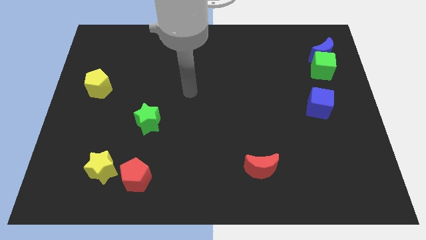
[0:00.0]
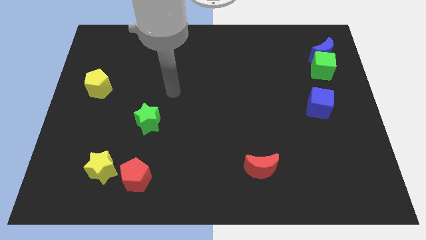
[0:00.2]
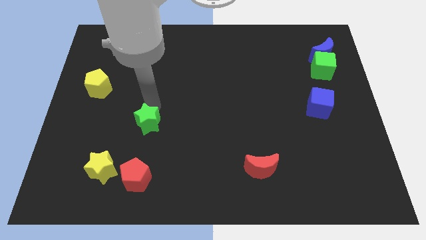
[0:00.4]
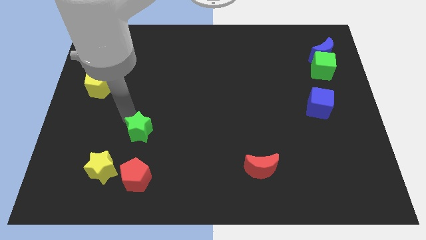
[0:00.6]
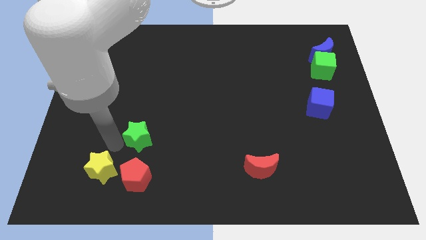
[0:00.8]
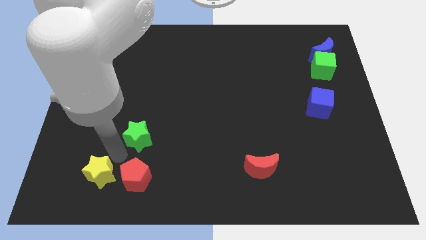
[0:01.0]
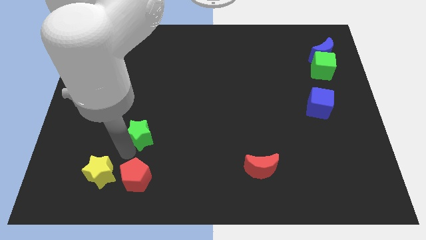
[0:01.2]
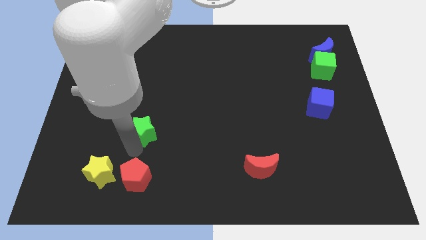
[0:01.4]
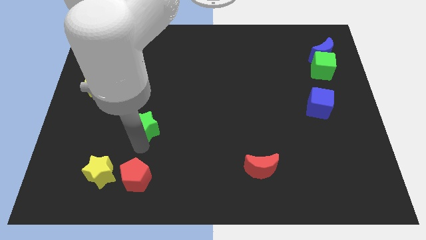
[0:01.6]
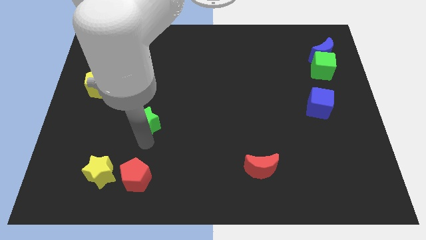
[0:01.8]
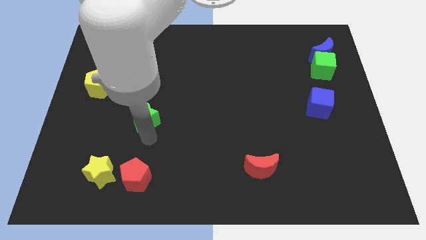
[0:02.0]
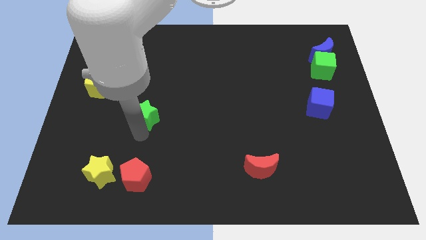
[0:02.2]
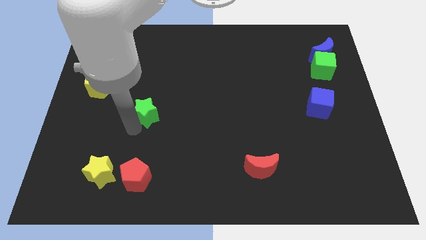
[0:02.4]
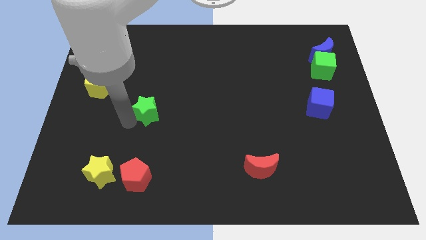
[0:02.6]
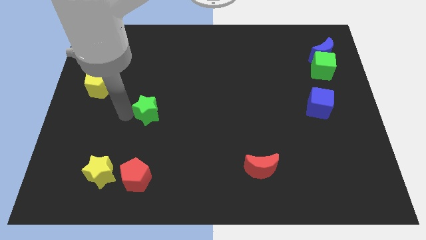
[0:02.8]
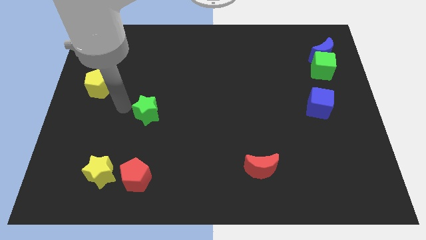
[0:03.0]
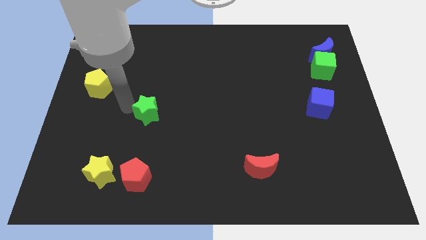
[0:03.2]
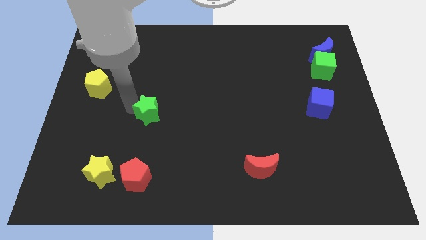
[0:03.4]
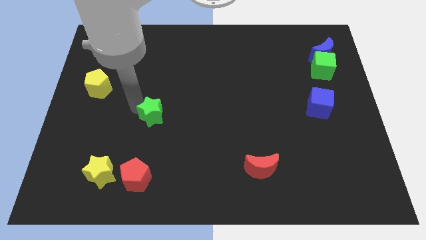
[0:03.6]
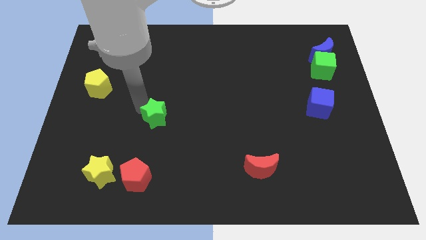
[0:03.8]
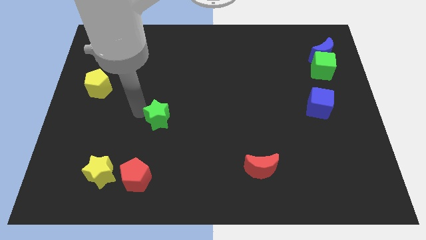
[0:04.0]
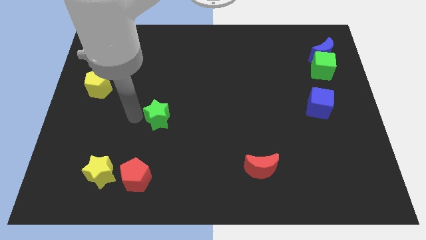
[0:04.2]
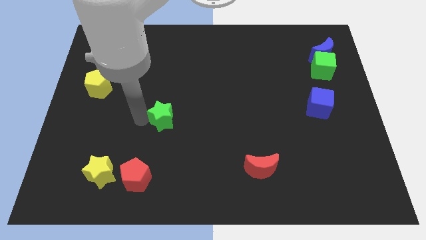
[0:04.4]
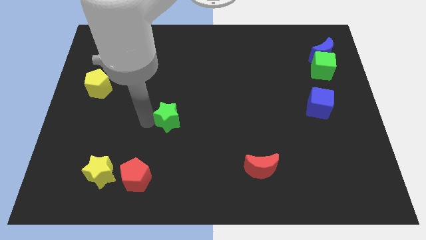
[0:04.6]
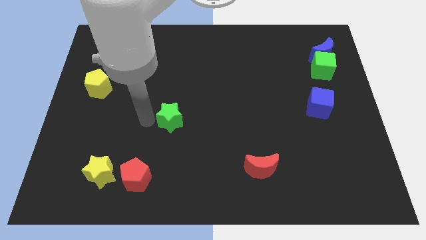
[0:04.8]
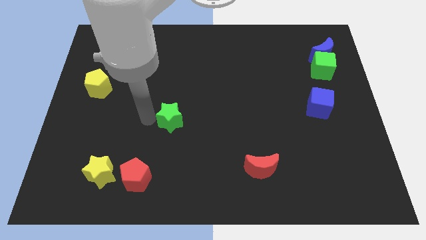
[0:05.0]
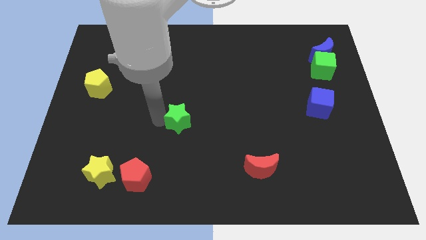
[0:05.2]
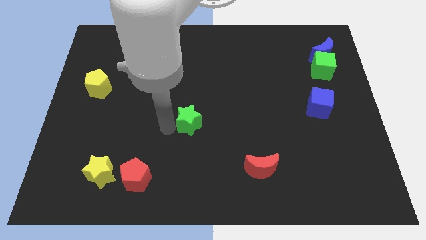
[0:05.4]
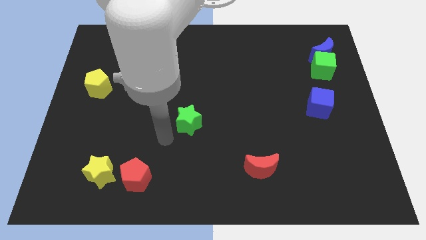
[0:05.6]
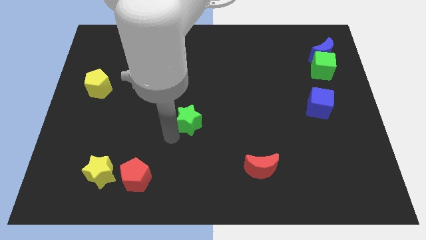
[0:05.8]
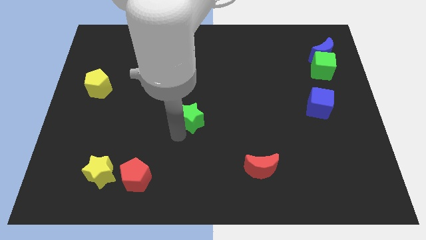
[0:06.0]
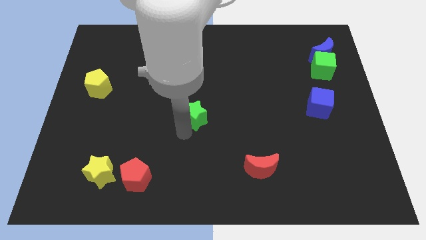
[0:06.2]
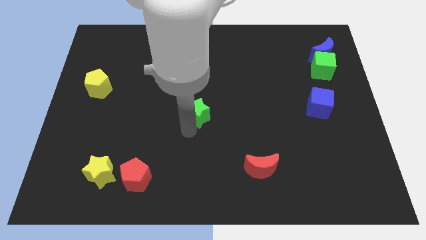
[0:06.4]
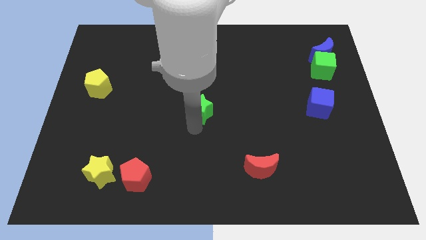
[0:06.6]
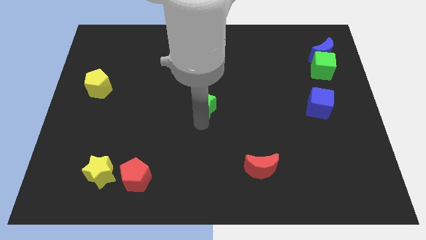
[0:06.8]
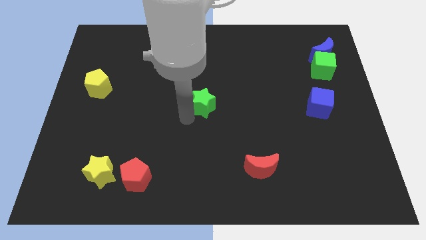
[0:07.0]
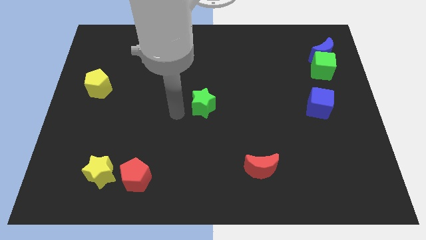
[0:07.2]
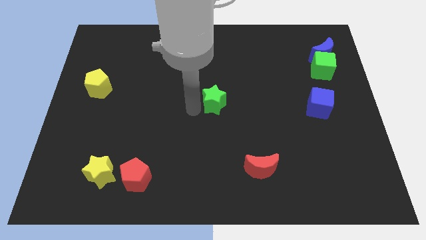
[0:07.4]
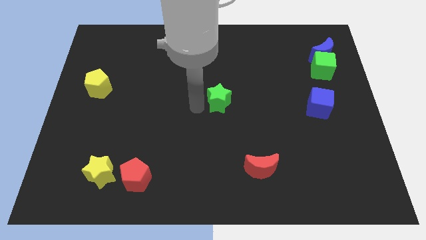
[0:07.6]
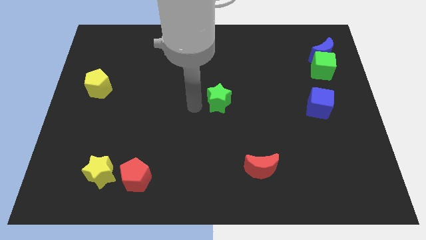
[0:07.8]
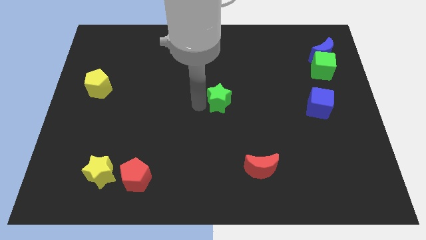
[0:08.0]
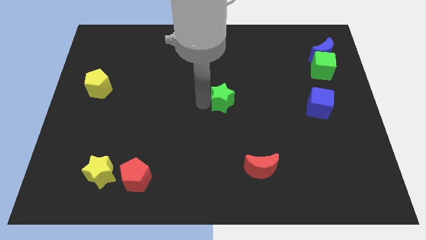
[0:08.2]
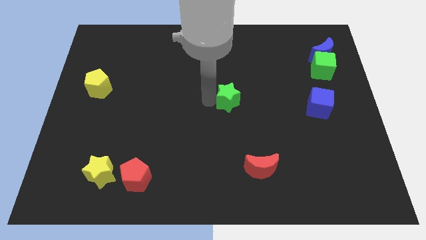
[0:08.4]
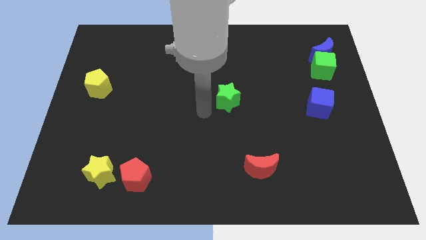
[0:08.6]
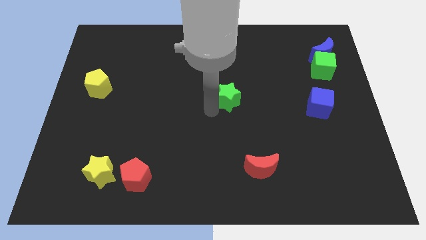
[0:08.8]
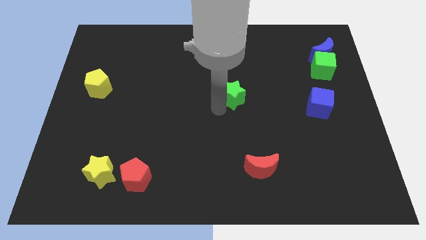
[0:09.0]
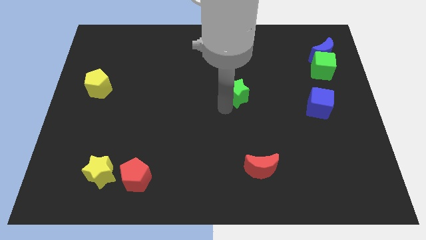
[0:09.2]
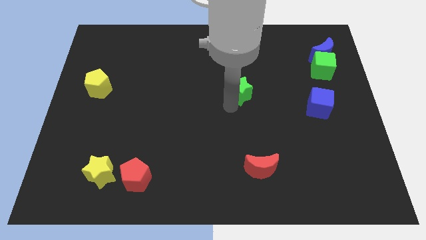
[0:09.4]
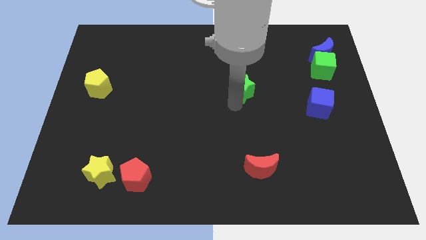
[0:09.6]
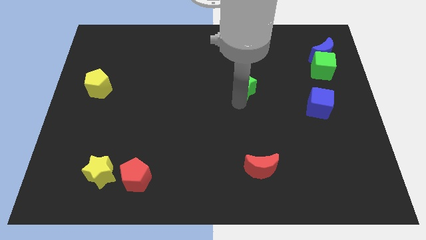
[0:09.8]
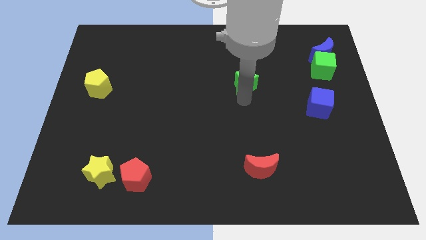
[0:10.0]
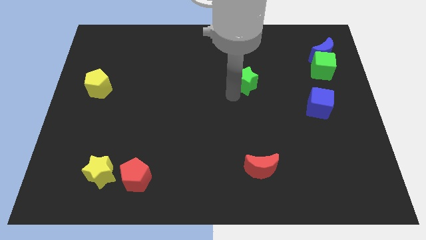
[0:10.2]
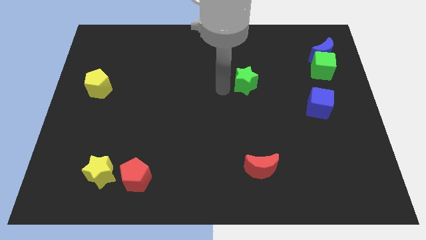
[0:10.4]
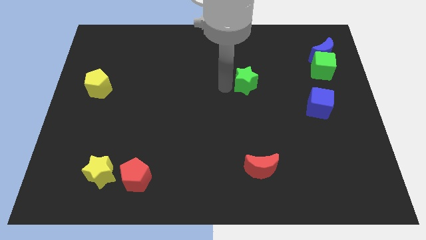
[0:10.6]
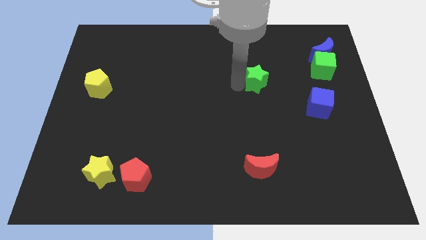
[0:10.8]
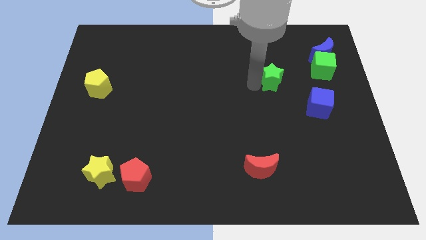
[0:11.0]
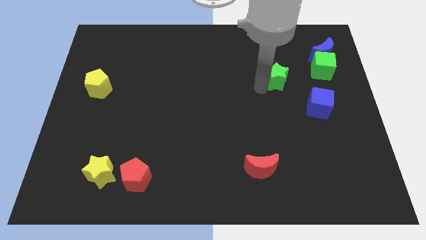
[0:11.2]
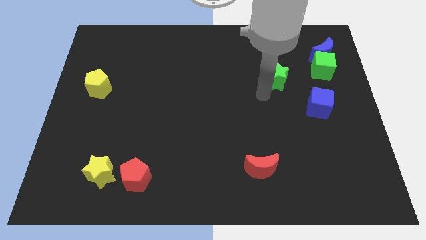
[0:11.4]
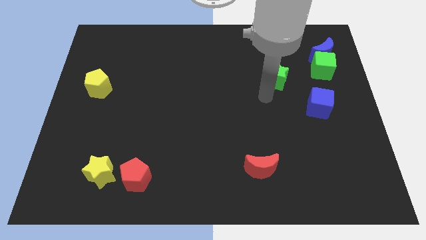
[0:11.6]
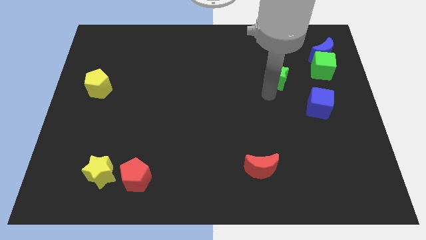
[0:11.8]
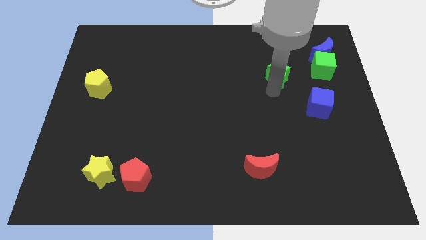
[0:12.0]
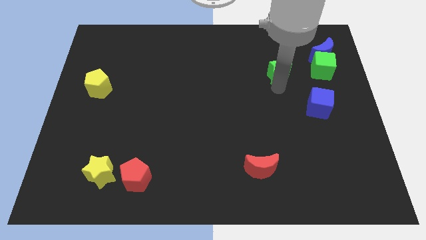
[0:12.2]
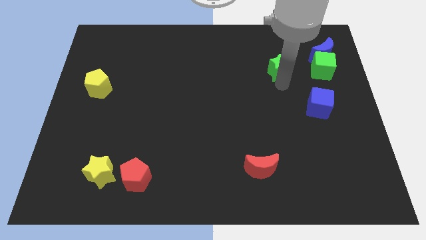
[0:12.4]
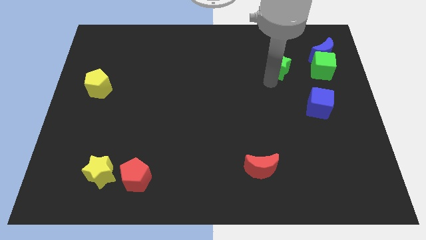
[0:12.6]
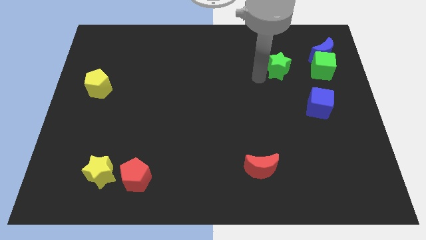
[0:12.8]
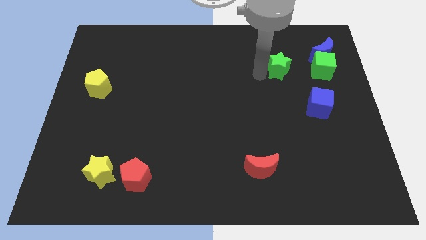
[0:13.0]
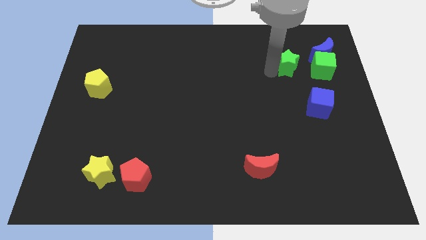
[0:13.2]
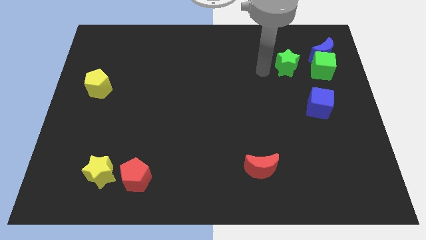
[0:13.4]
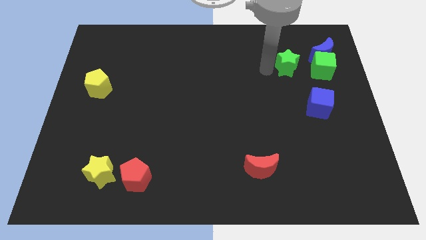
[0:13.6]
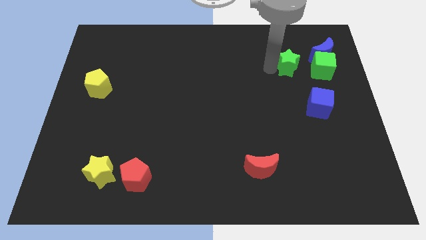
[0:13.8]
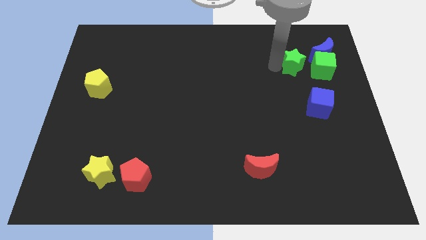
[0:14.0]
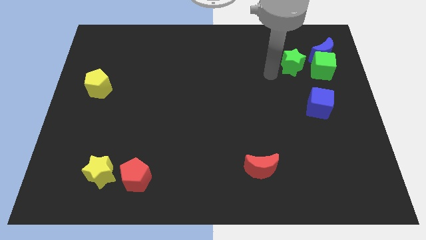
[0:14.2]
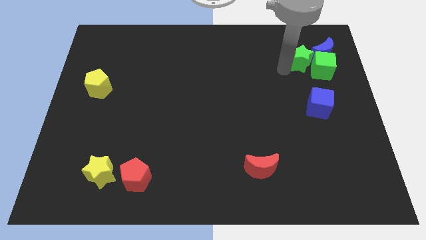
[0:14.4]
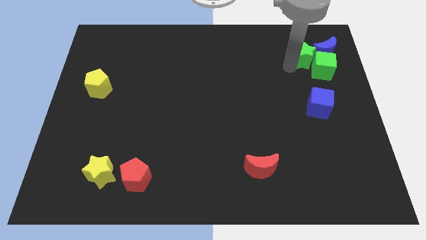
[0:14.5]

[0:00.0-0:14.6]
push the green star next to the blue moon

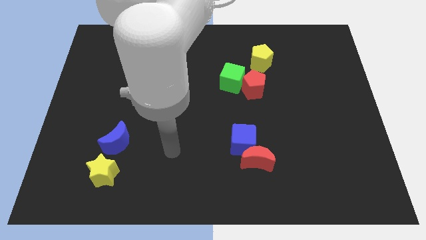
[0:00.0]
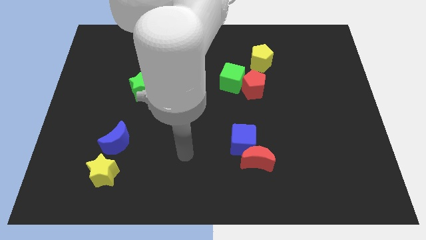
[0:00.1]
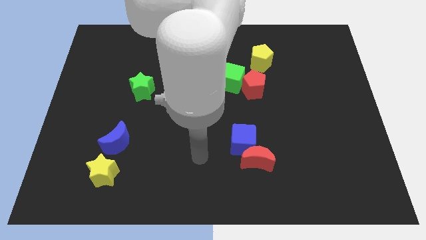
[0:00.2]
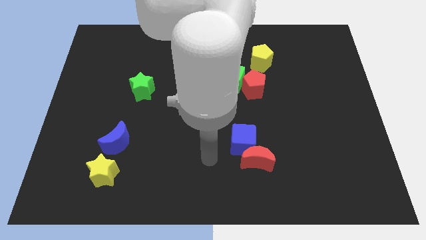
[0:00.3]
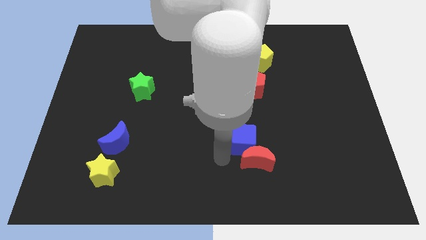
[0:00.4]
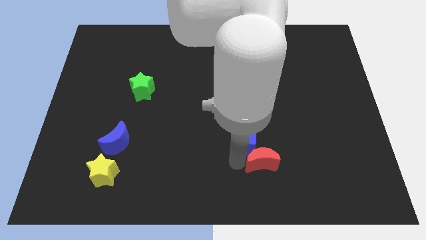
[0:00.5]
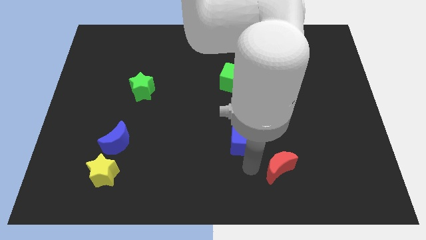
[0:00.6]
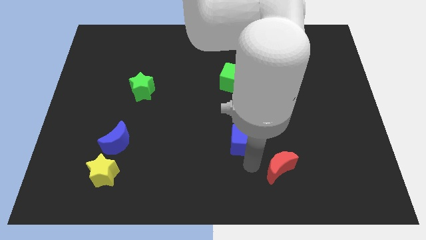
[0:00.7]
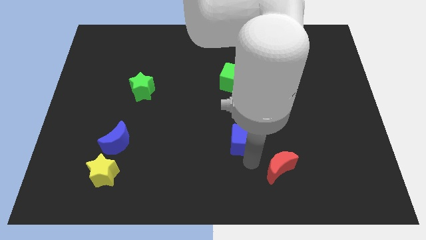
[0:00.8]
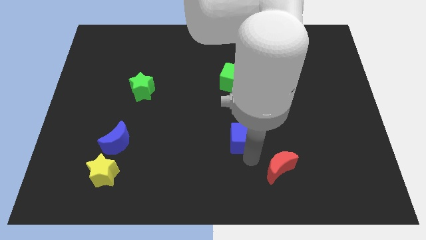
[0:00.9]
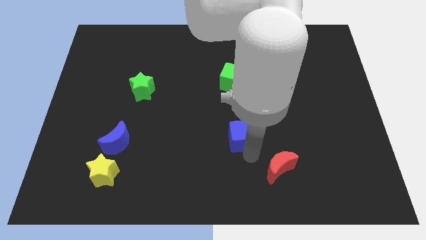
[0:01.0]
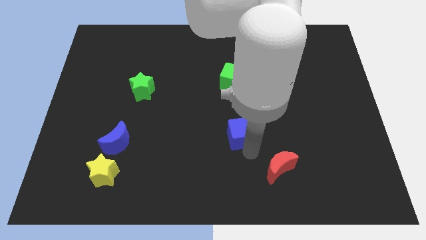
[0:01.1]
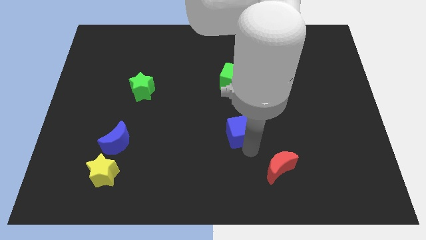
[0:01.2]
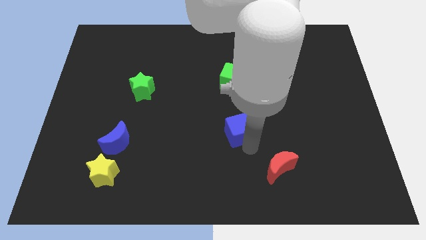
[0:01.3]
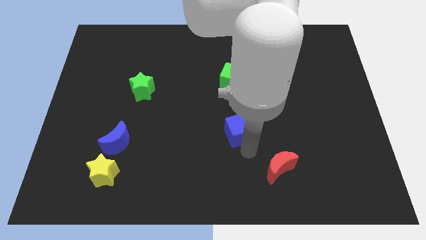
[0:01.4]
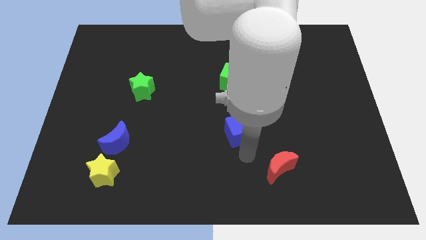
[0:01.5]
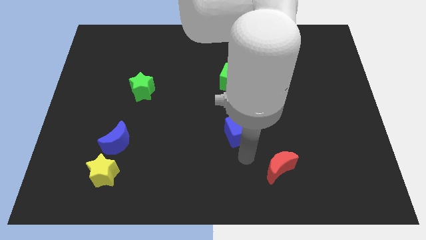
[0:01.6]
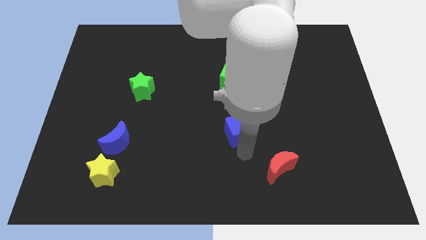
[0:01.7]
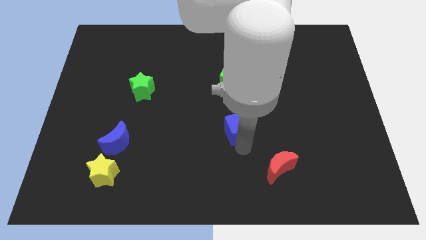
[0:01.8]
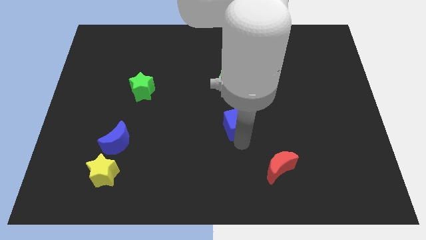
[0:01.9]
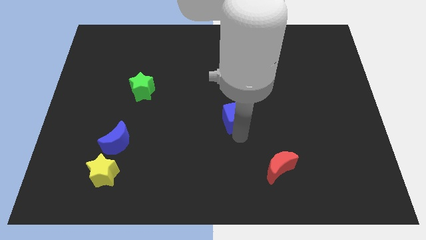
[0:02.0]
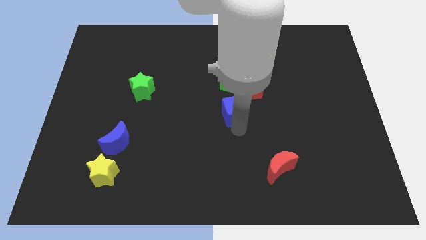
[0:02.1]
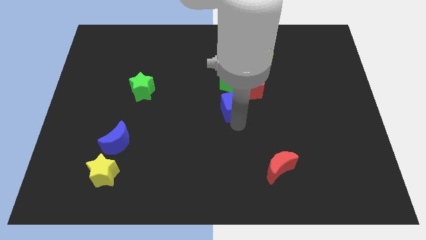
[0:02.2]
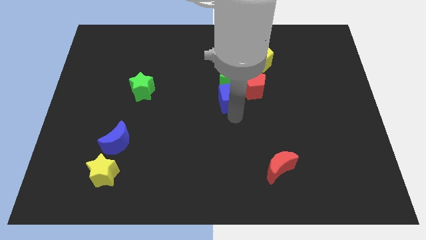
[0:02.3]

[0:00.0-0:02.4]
put the blue cube next to the green cube
